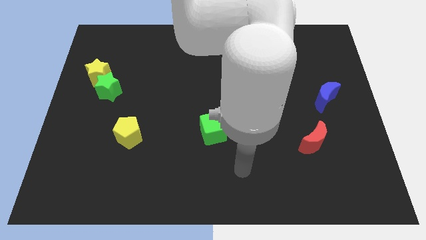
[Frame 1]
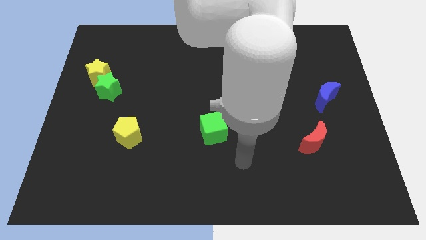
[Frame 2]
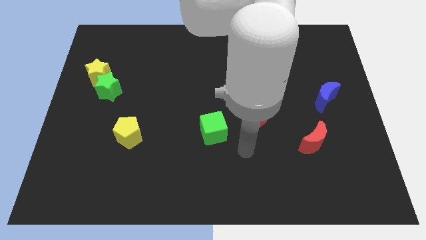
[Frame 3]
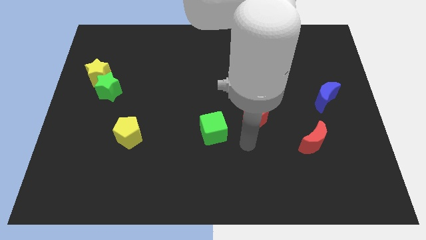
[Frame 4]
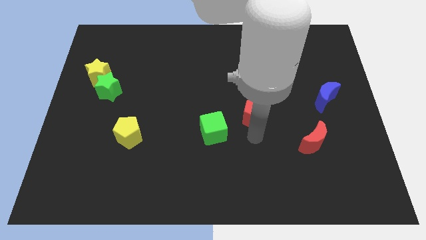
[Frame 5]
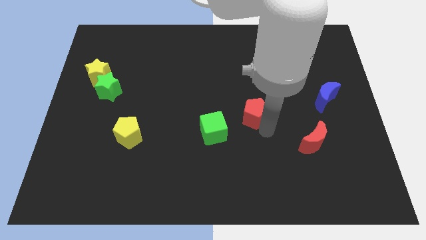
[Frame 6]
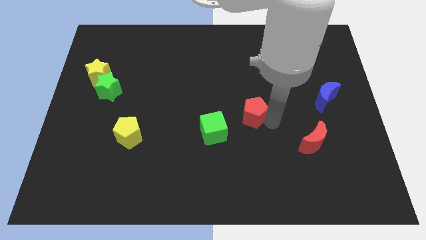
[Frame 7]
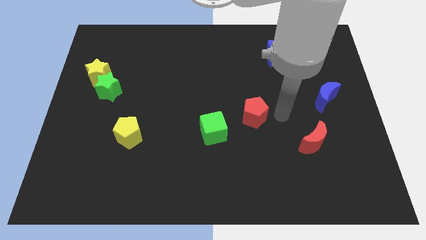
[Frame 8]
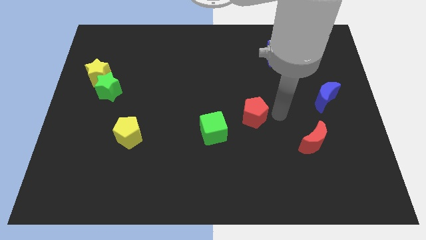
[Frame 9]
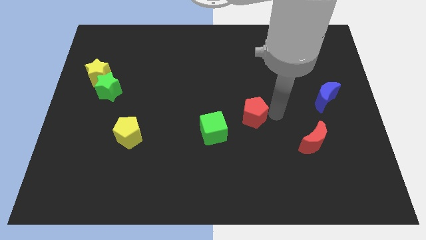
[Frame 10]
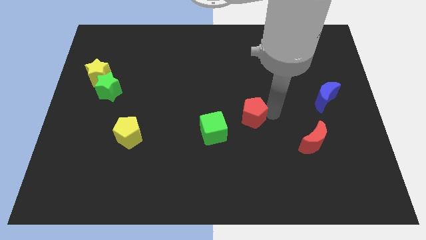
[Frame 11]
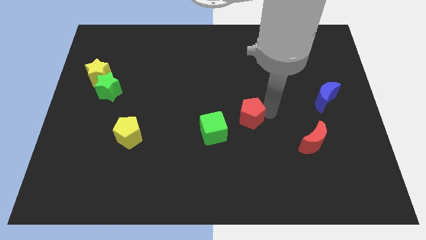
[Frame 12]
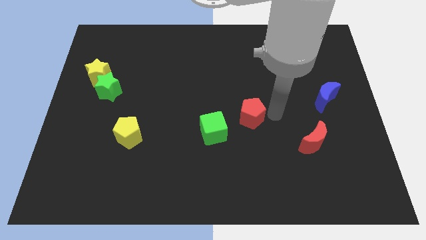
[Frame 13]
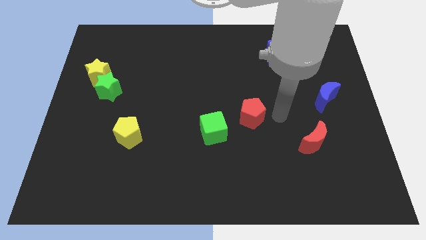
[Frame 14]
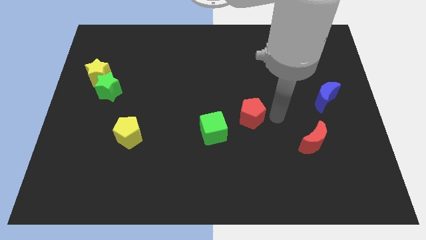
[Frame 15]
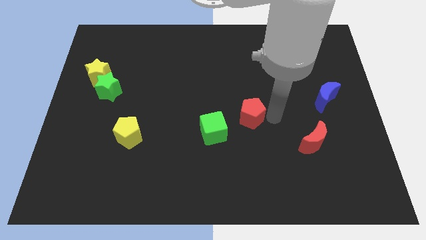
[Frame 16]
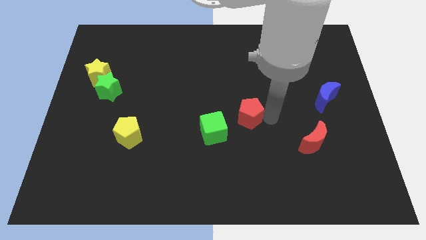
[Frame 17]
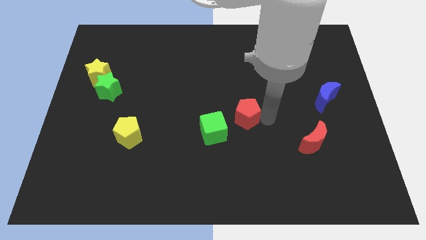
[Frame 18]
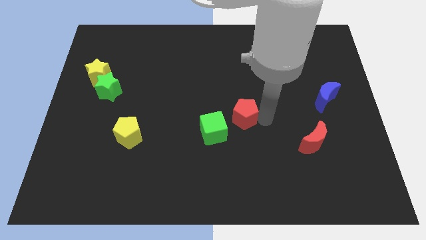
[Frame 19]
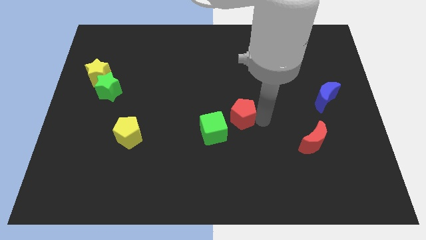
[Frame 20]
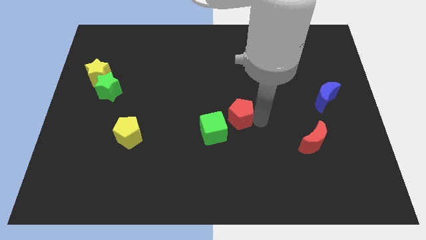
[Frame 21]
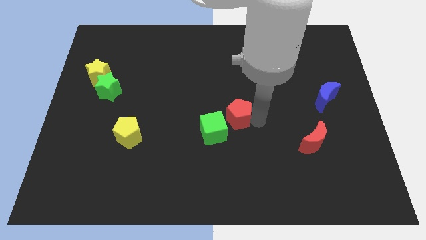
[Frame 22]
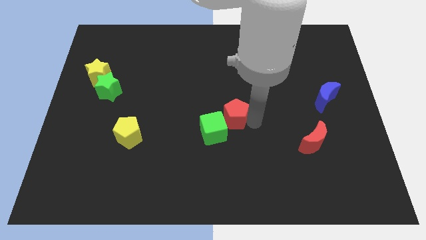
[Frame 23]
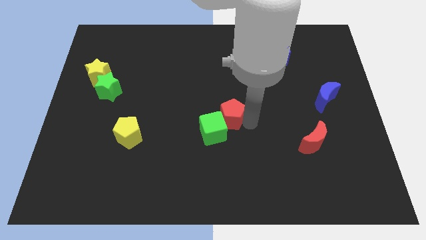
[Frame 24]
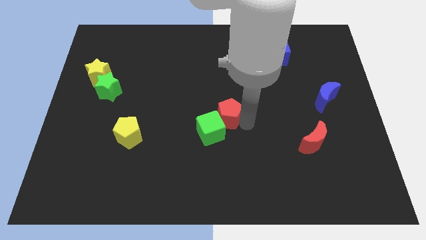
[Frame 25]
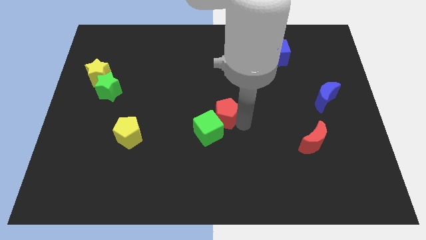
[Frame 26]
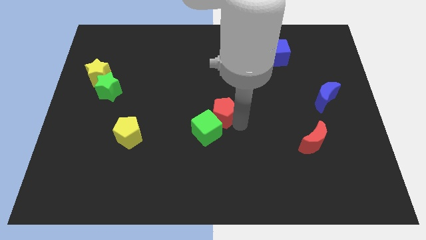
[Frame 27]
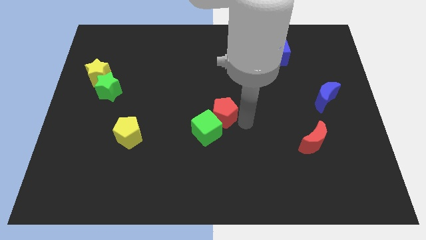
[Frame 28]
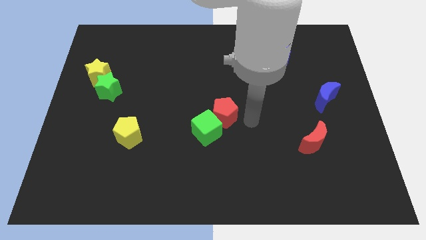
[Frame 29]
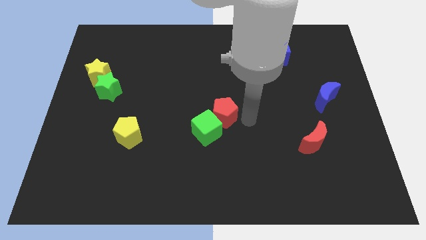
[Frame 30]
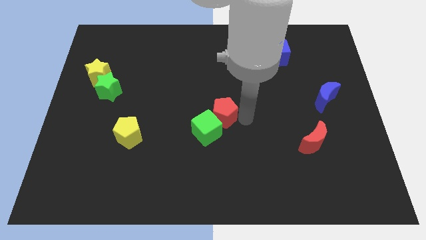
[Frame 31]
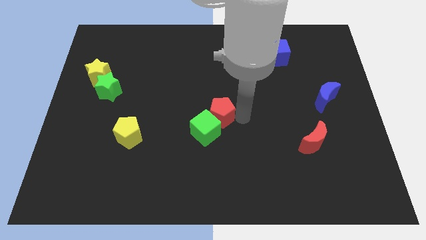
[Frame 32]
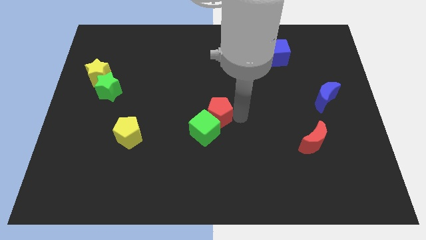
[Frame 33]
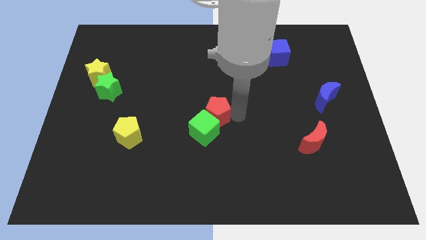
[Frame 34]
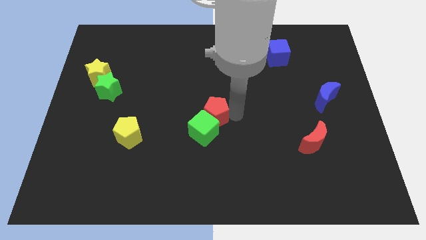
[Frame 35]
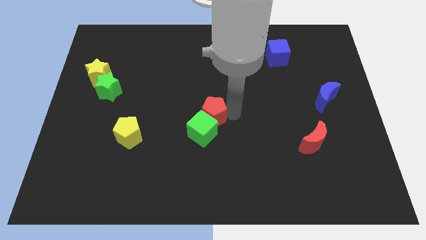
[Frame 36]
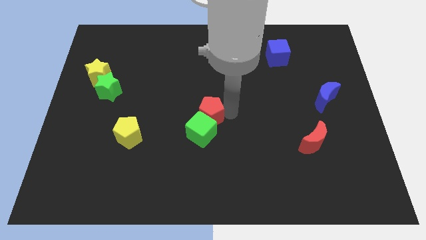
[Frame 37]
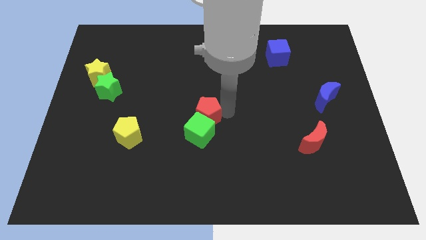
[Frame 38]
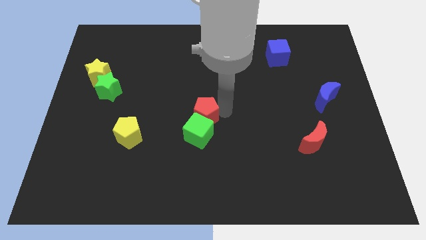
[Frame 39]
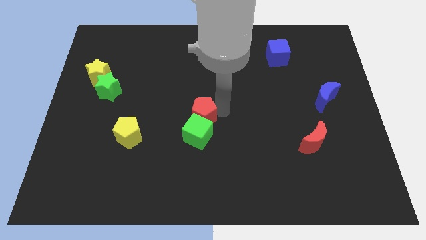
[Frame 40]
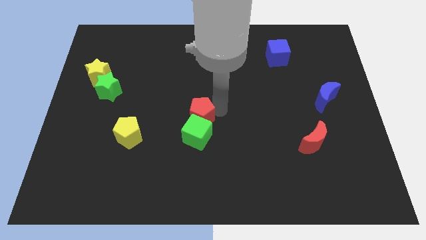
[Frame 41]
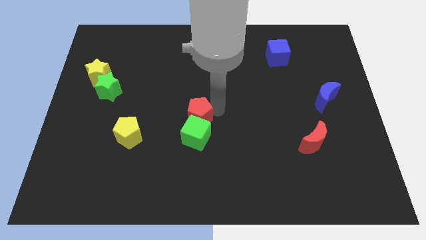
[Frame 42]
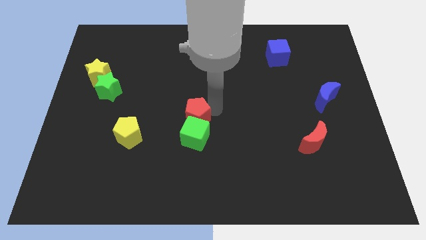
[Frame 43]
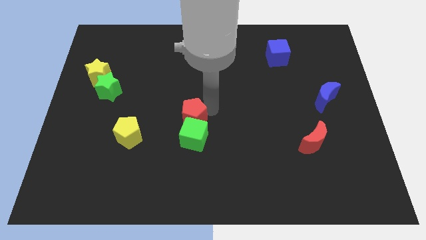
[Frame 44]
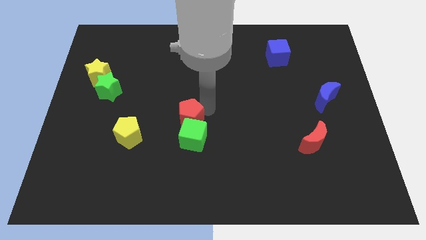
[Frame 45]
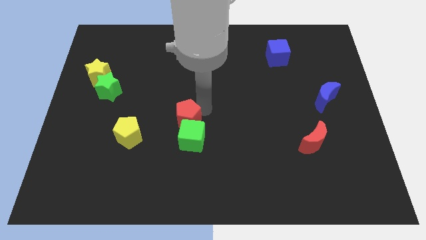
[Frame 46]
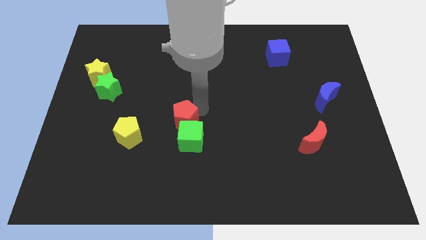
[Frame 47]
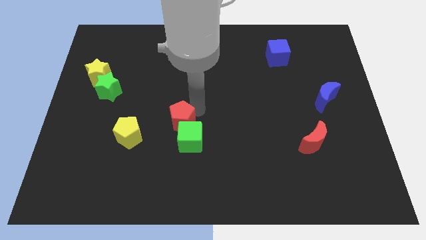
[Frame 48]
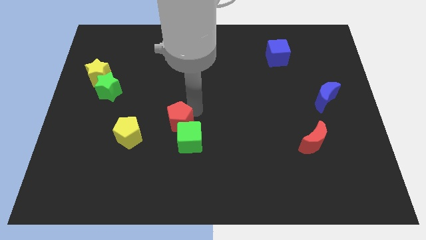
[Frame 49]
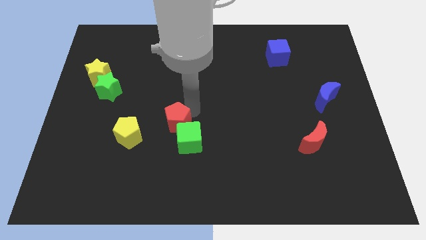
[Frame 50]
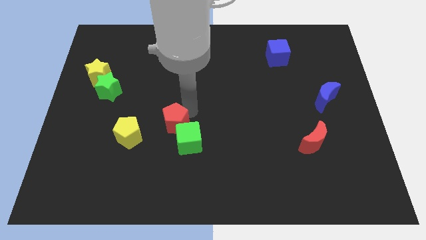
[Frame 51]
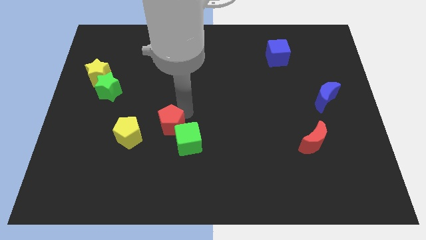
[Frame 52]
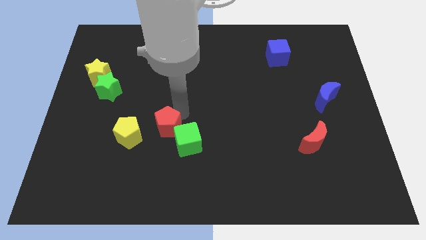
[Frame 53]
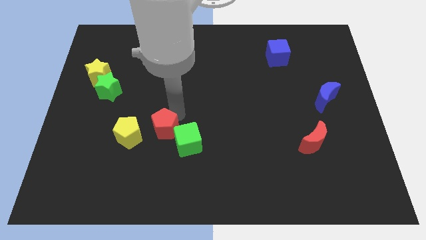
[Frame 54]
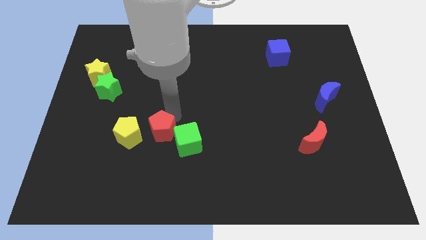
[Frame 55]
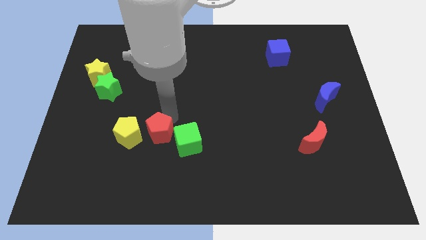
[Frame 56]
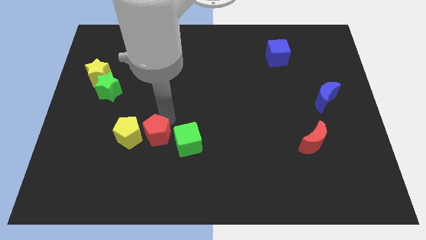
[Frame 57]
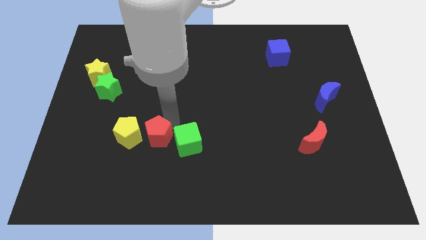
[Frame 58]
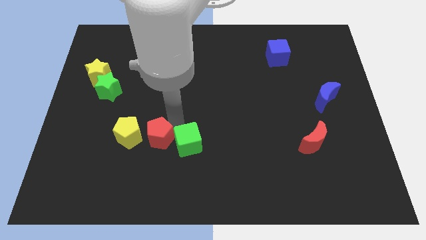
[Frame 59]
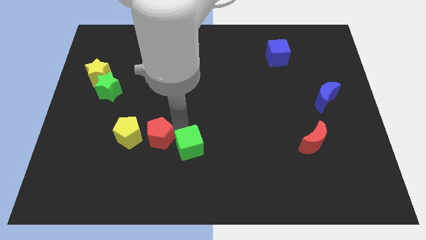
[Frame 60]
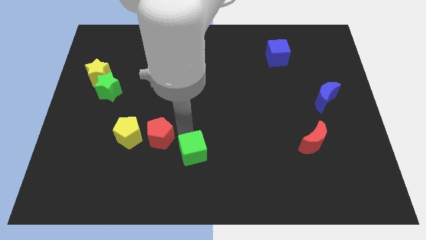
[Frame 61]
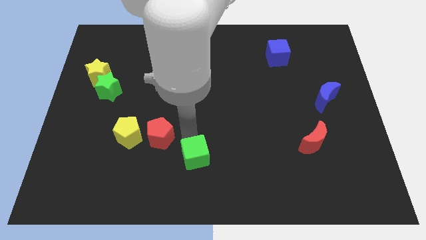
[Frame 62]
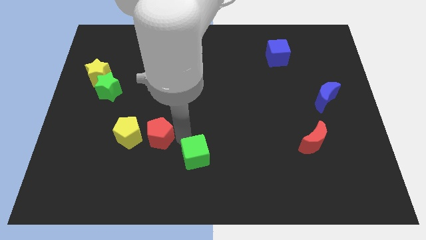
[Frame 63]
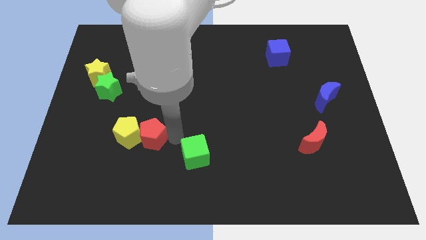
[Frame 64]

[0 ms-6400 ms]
slide the red pentagon towards the yellow pentagon

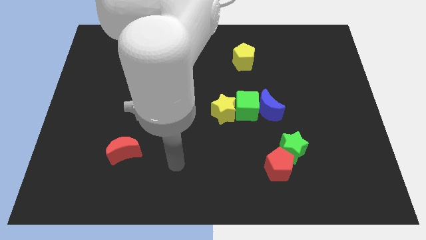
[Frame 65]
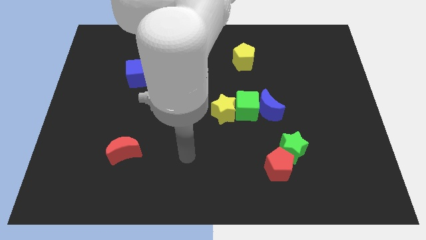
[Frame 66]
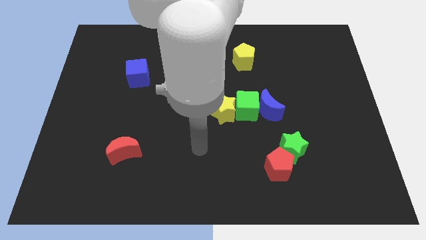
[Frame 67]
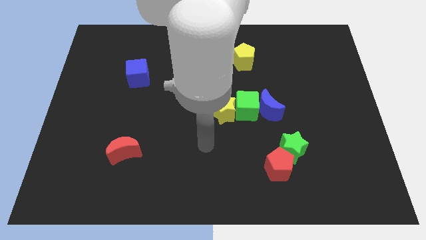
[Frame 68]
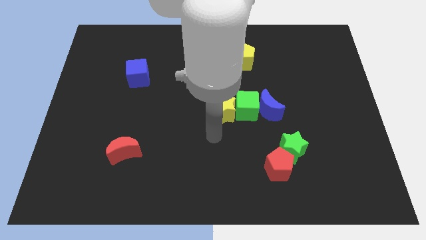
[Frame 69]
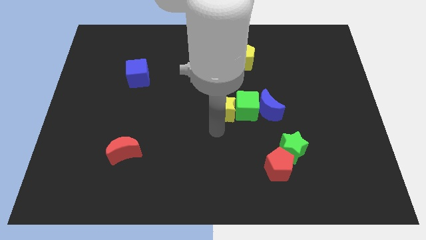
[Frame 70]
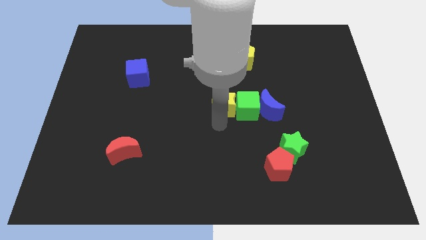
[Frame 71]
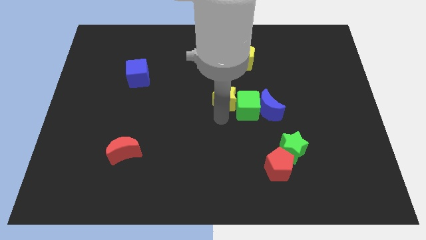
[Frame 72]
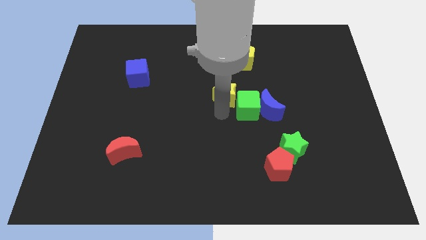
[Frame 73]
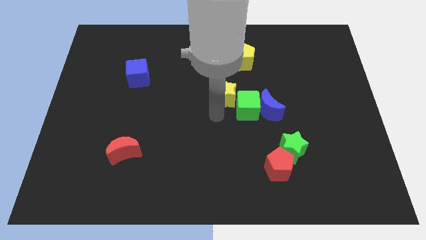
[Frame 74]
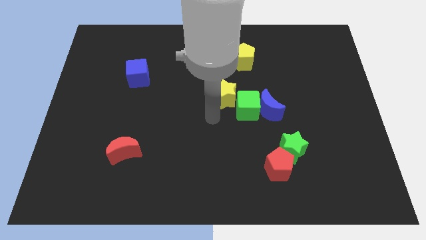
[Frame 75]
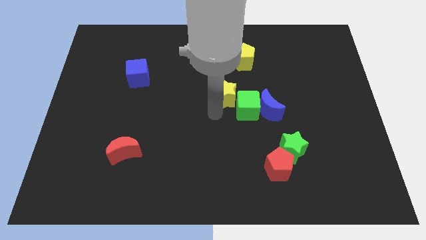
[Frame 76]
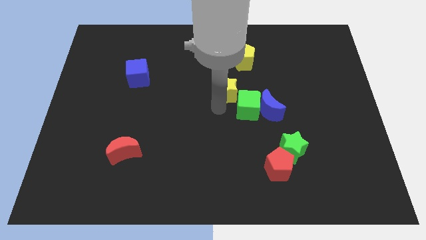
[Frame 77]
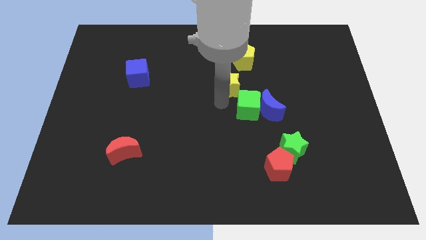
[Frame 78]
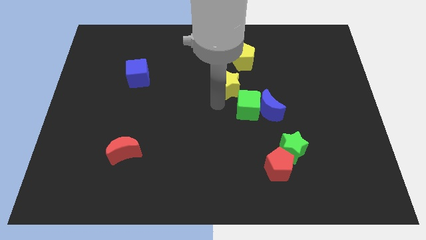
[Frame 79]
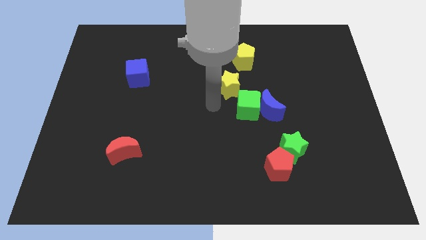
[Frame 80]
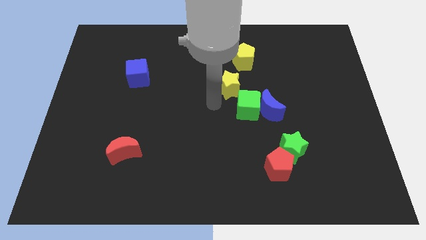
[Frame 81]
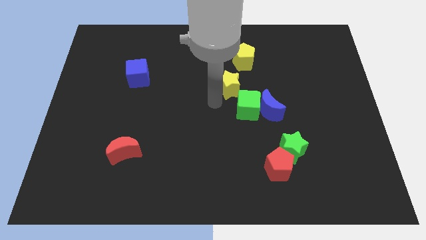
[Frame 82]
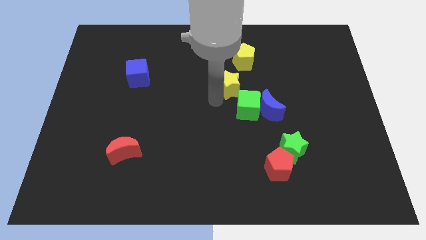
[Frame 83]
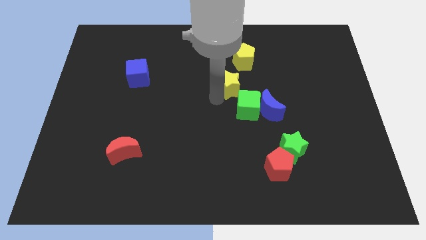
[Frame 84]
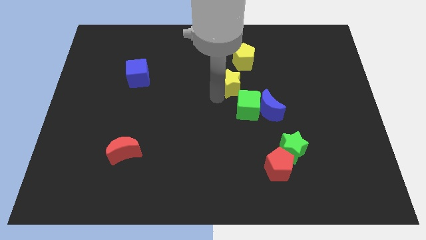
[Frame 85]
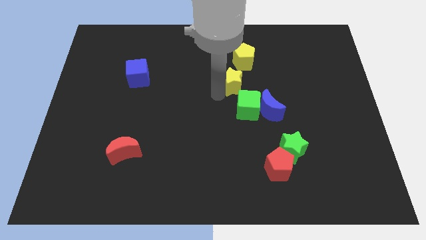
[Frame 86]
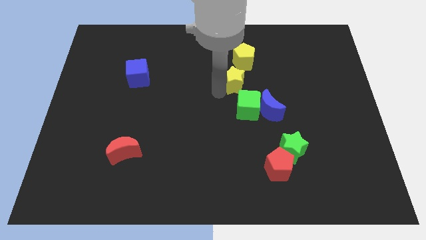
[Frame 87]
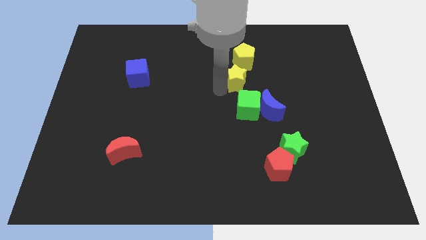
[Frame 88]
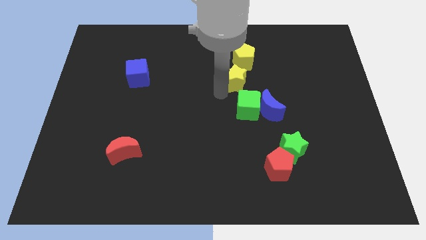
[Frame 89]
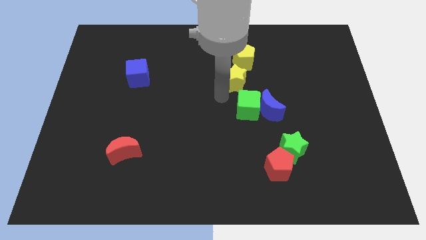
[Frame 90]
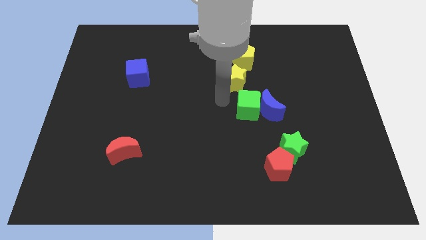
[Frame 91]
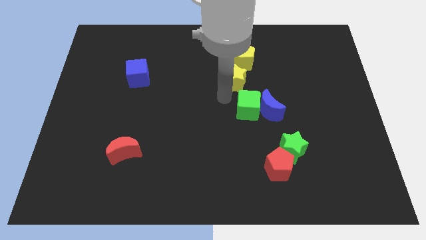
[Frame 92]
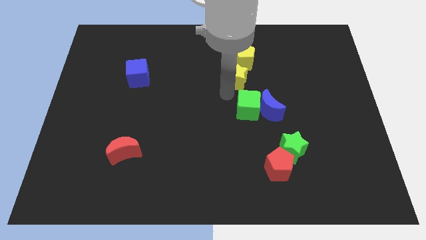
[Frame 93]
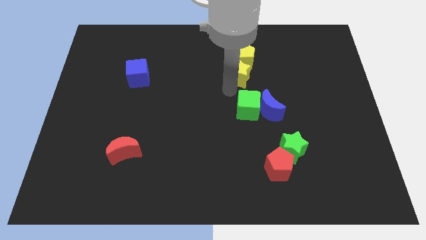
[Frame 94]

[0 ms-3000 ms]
put the yellow star close to the yellow pentagon
